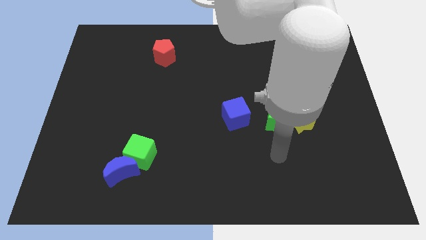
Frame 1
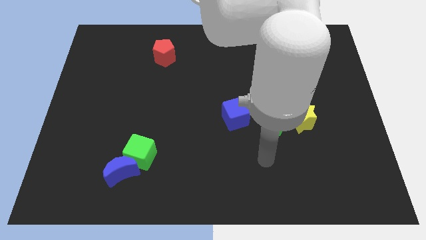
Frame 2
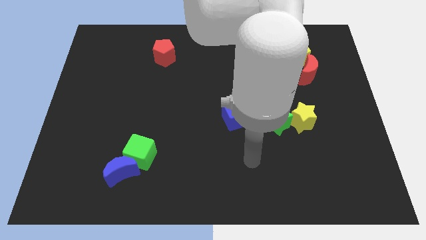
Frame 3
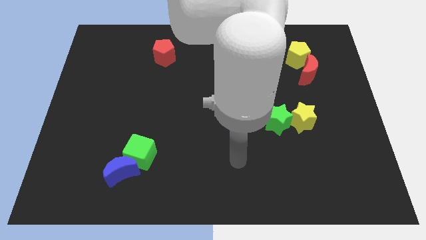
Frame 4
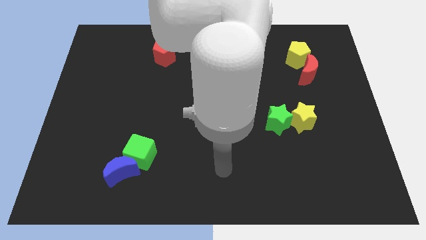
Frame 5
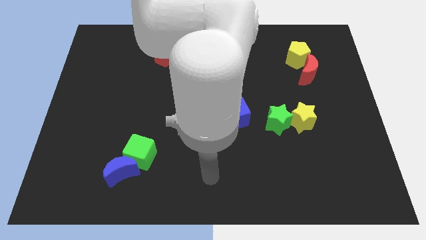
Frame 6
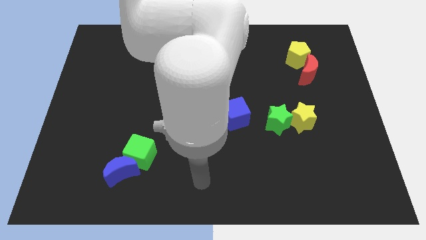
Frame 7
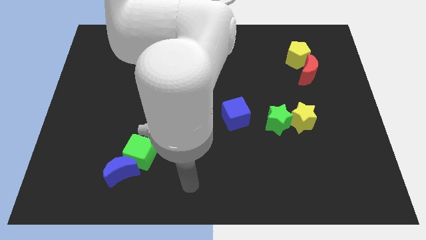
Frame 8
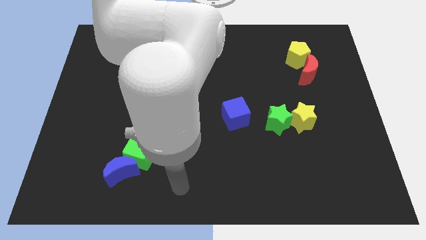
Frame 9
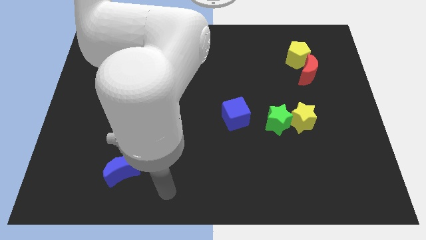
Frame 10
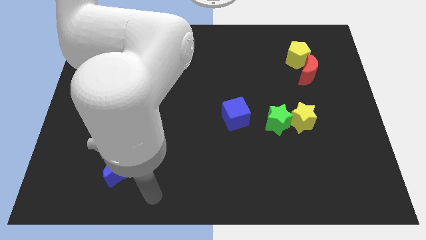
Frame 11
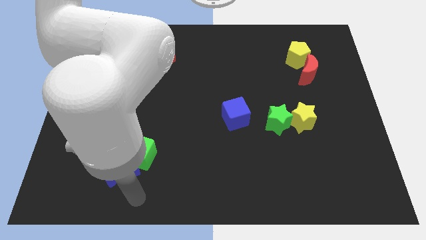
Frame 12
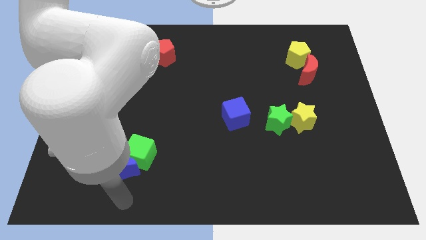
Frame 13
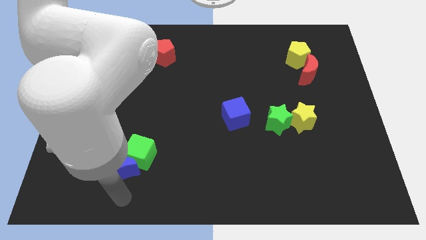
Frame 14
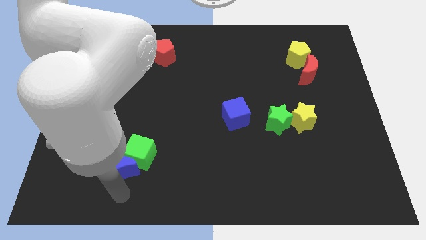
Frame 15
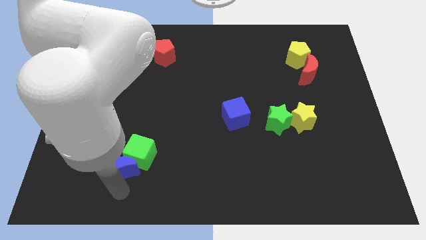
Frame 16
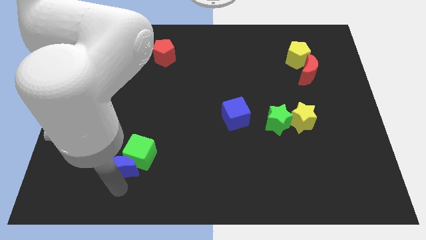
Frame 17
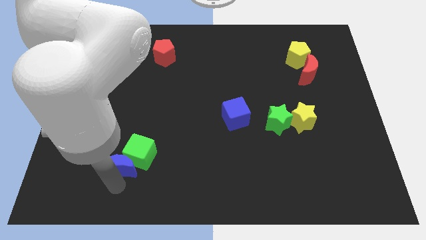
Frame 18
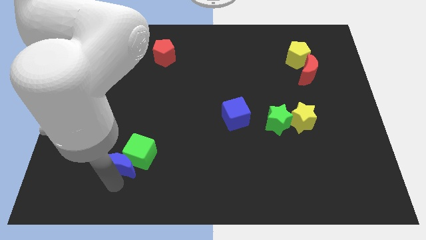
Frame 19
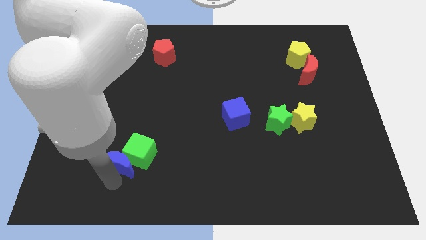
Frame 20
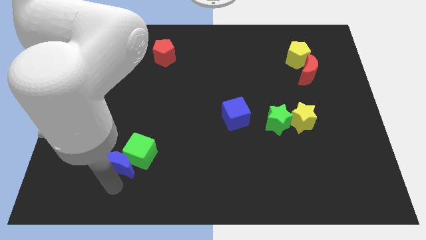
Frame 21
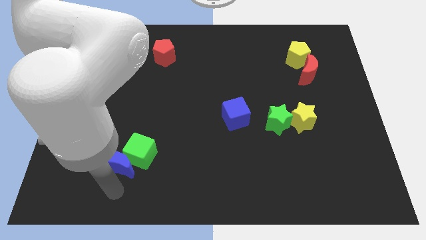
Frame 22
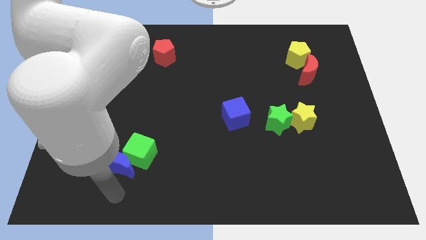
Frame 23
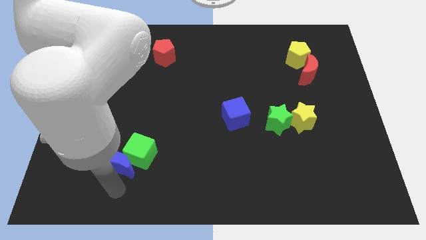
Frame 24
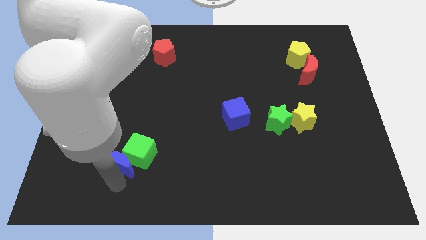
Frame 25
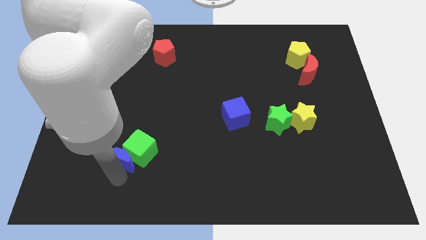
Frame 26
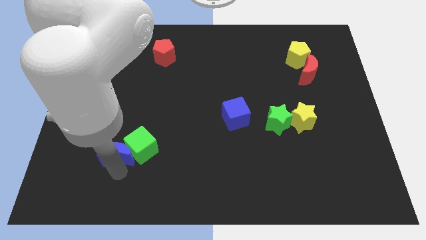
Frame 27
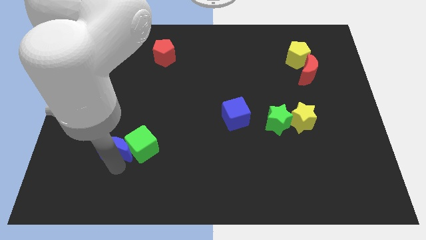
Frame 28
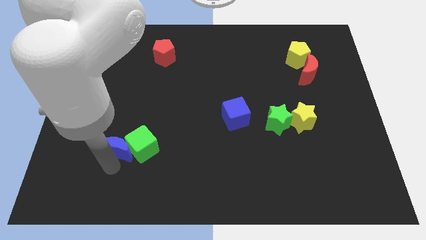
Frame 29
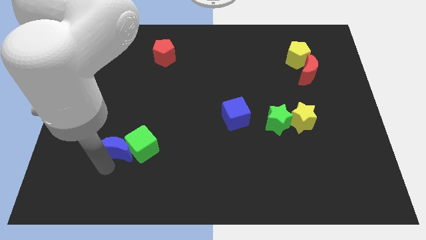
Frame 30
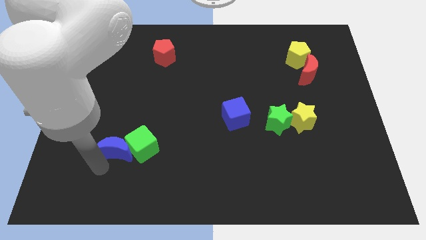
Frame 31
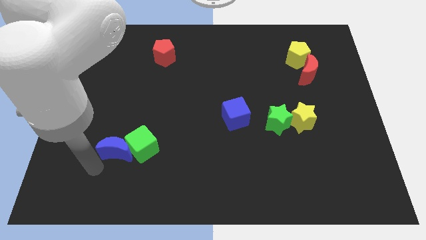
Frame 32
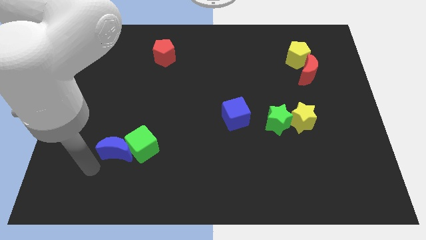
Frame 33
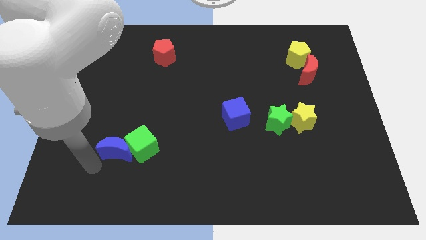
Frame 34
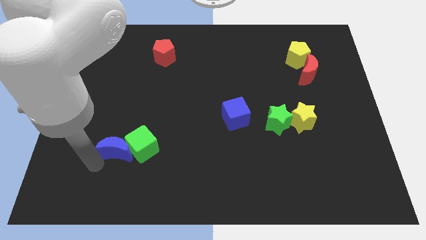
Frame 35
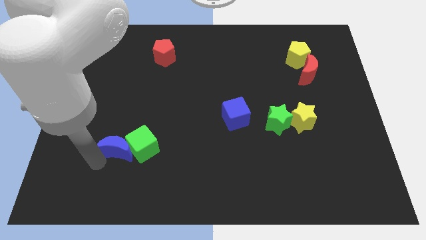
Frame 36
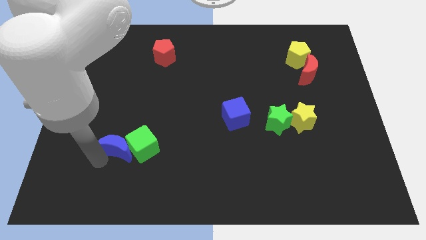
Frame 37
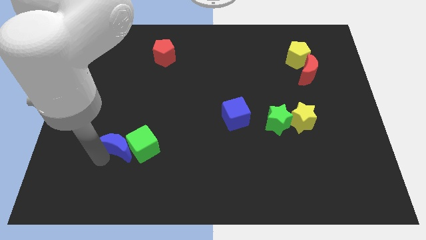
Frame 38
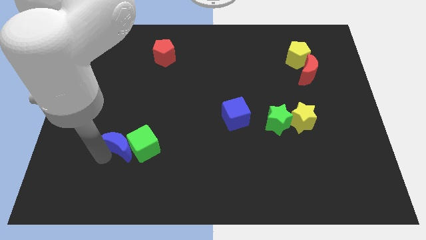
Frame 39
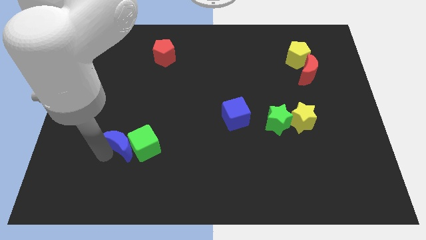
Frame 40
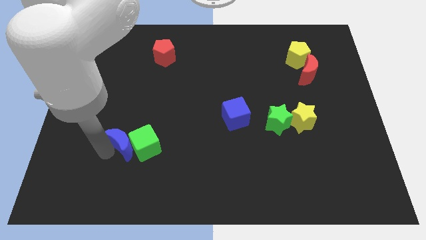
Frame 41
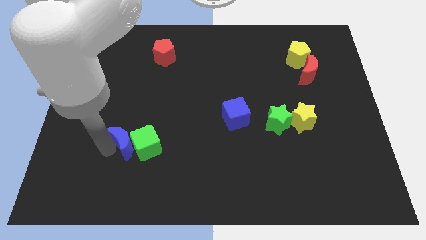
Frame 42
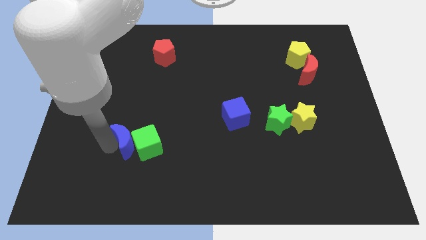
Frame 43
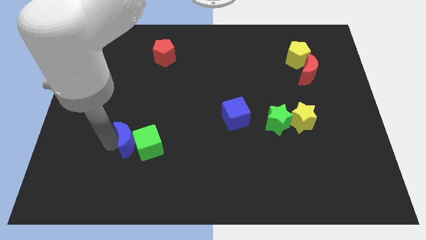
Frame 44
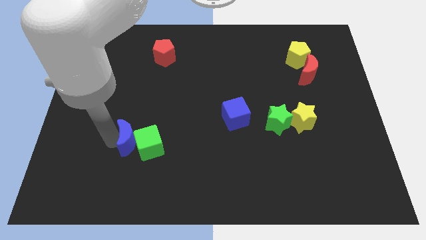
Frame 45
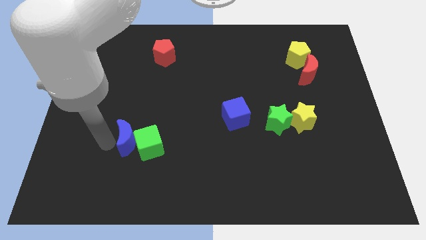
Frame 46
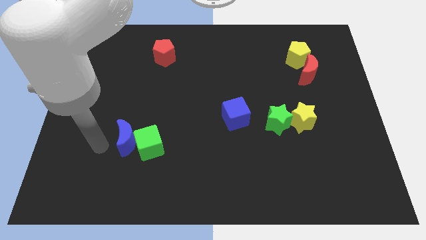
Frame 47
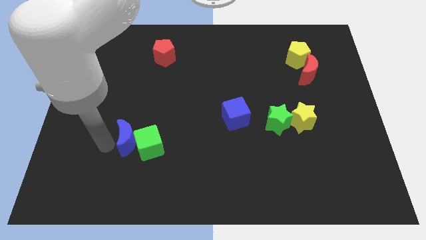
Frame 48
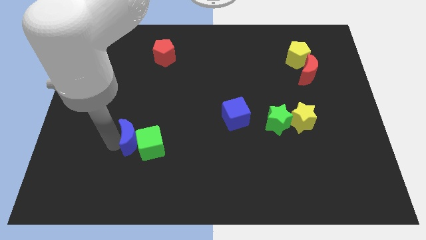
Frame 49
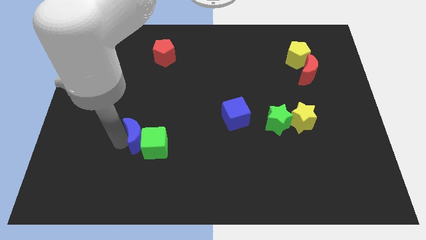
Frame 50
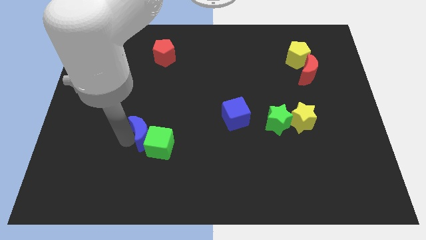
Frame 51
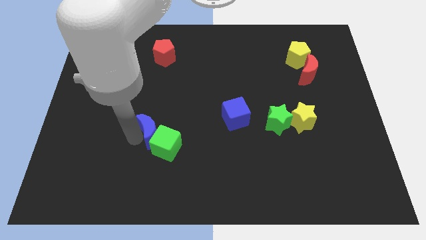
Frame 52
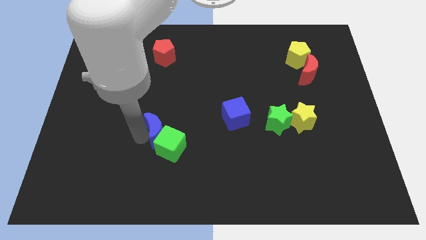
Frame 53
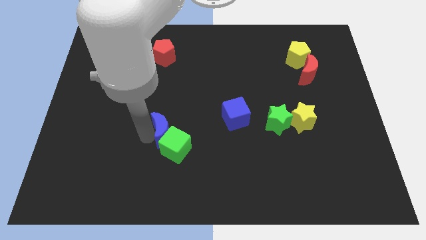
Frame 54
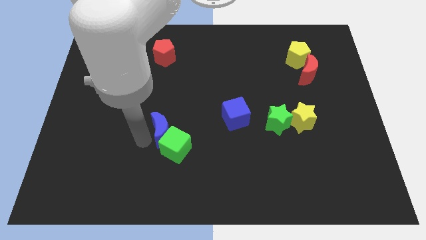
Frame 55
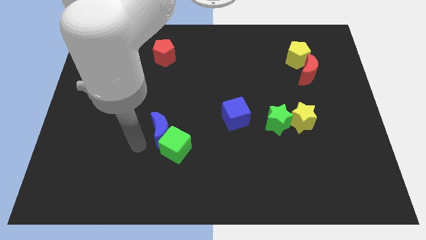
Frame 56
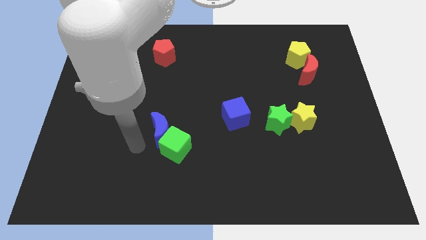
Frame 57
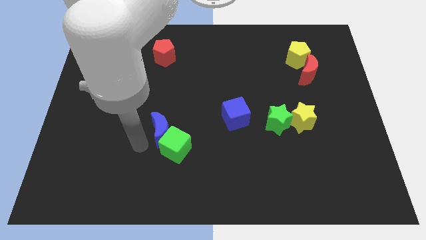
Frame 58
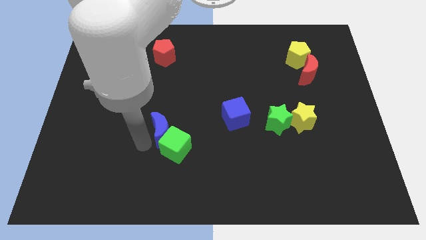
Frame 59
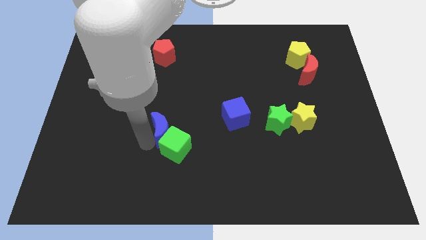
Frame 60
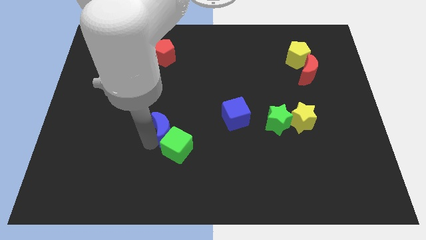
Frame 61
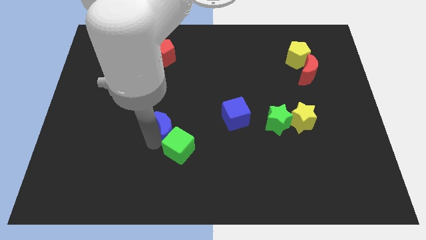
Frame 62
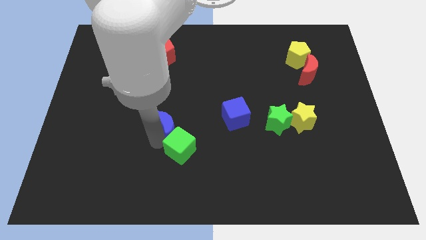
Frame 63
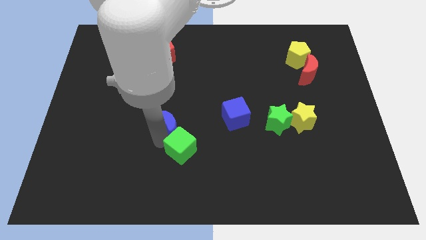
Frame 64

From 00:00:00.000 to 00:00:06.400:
put the blue moon to the left of the blue cube

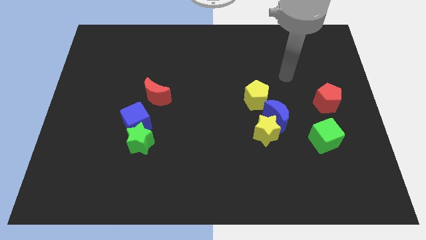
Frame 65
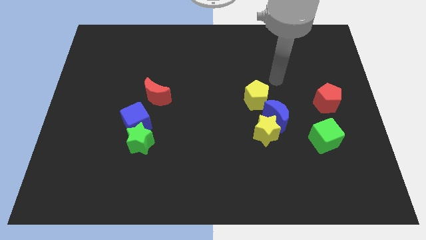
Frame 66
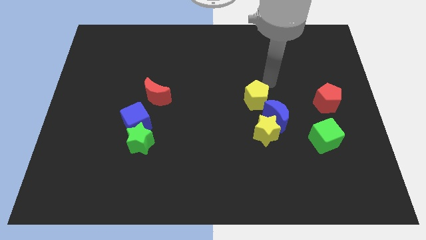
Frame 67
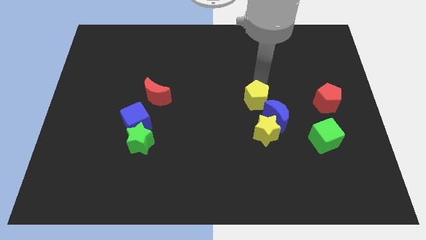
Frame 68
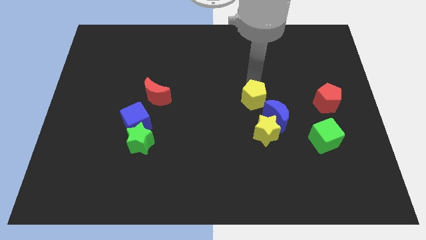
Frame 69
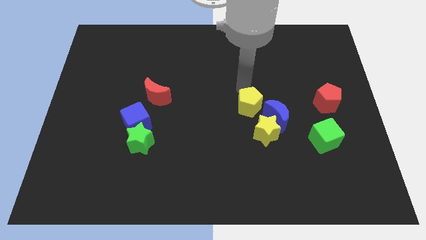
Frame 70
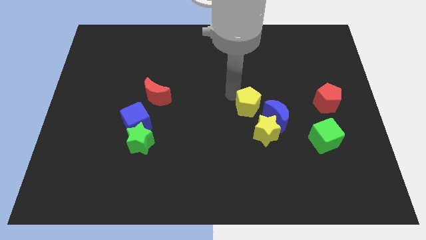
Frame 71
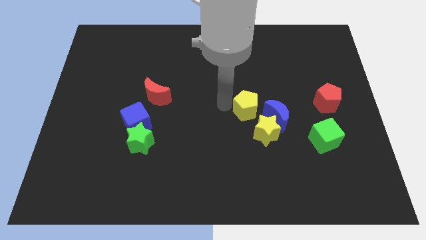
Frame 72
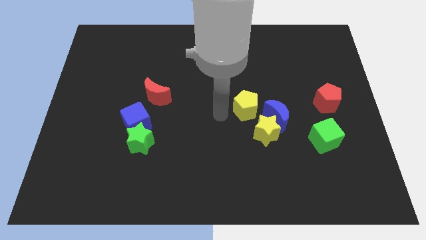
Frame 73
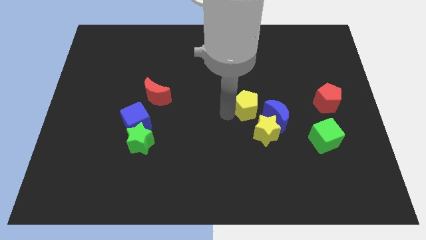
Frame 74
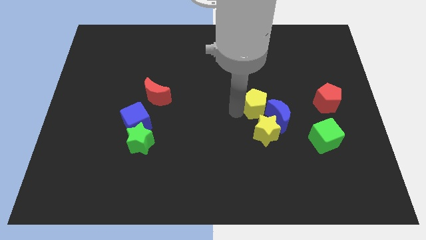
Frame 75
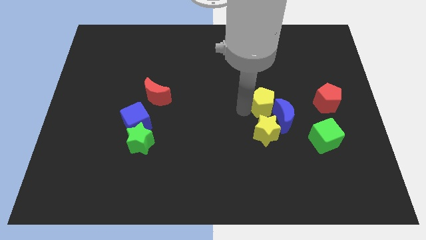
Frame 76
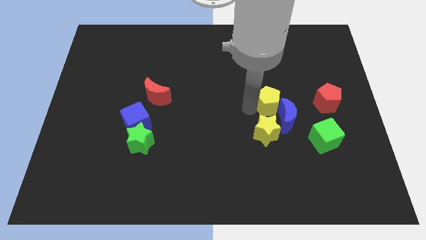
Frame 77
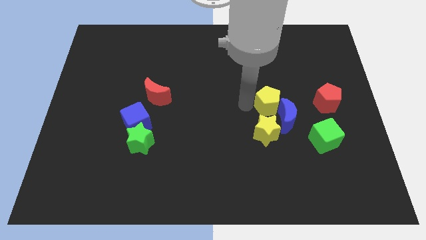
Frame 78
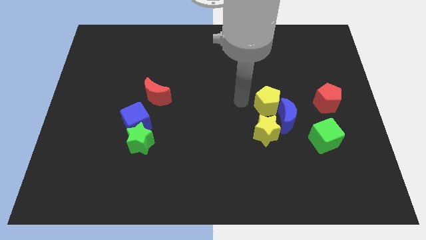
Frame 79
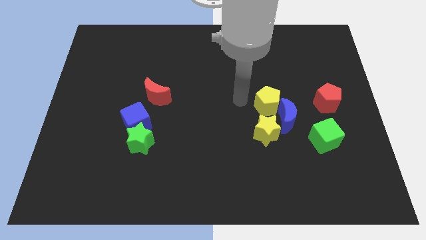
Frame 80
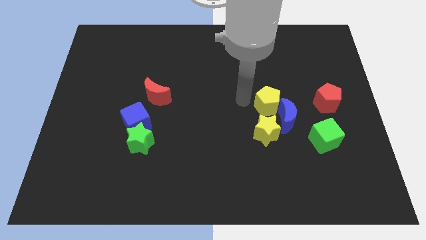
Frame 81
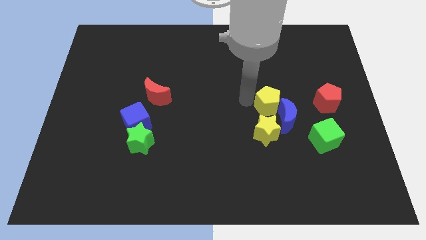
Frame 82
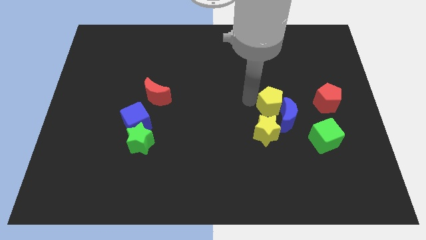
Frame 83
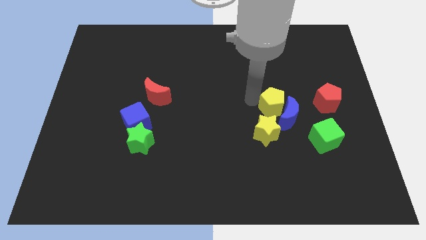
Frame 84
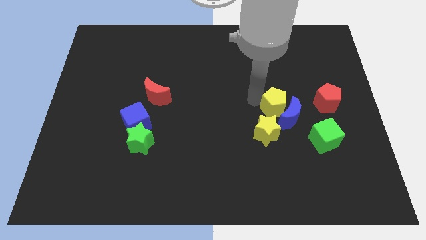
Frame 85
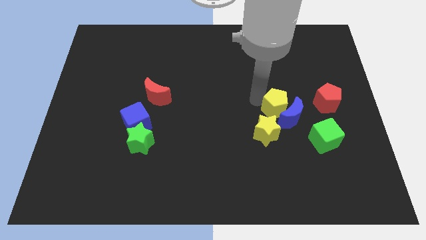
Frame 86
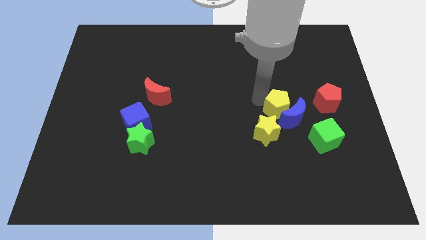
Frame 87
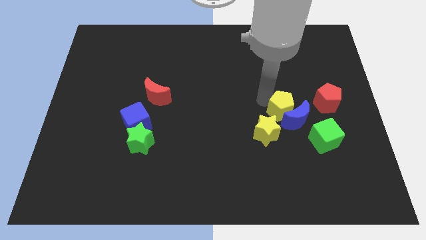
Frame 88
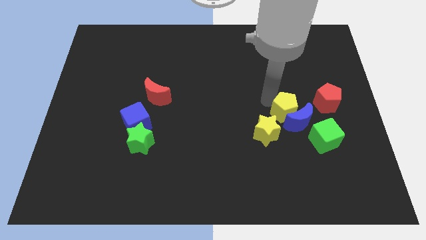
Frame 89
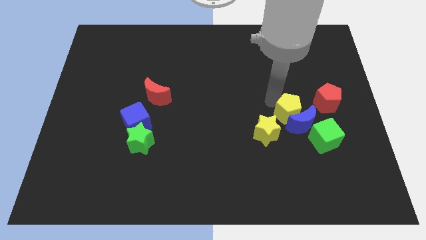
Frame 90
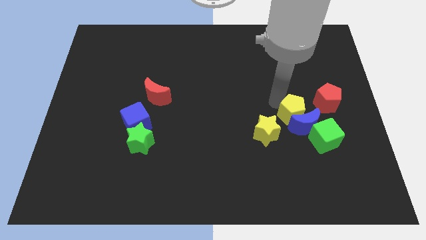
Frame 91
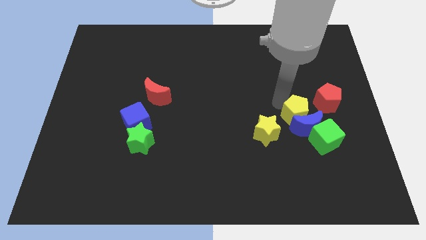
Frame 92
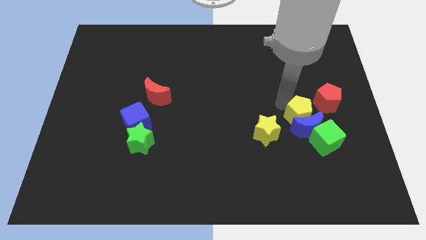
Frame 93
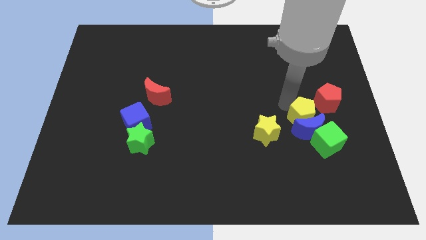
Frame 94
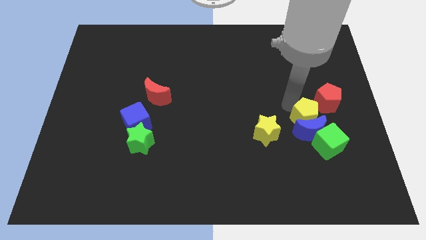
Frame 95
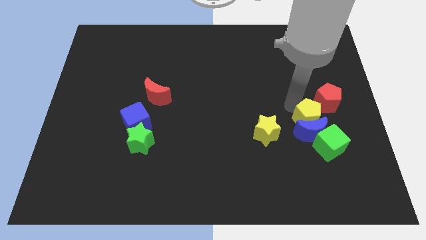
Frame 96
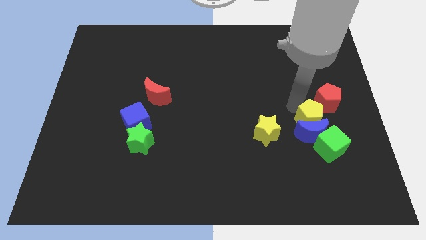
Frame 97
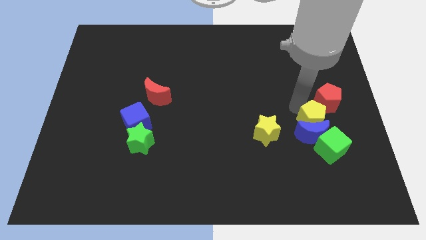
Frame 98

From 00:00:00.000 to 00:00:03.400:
move the yellow pentagon below the red pentagon
